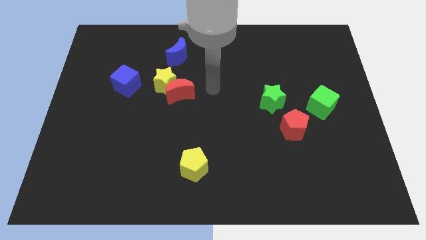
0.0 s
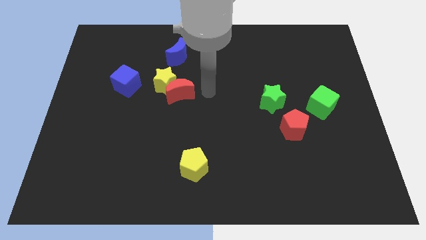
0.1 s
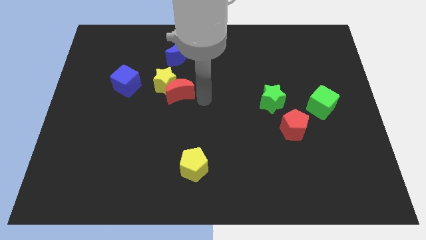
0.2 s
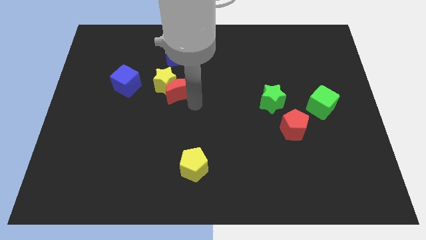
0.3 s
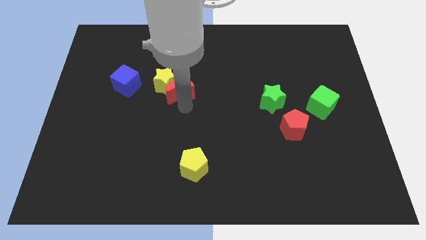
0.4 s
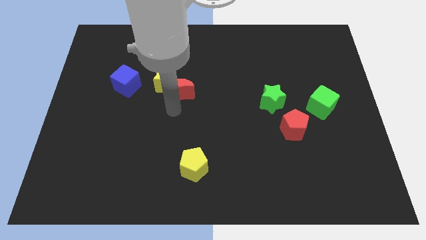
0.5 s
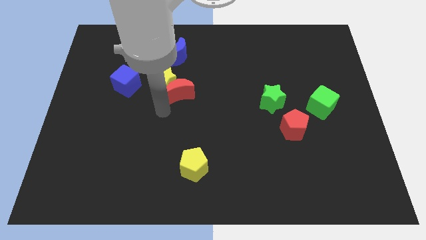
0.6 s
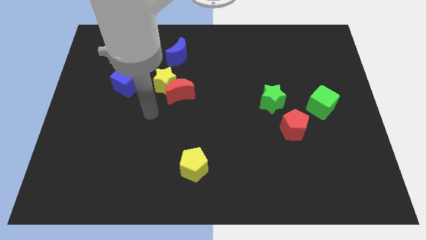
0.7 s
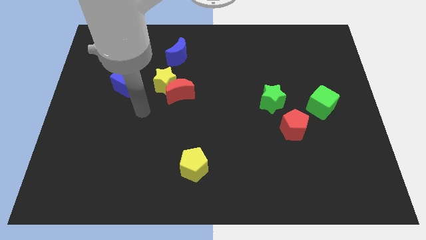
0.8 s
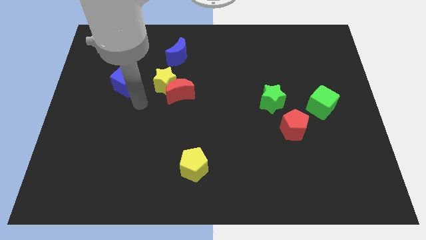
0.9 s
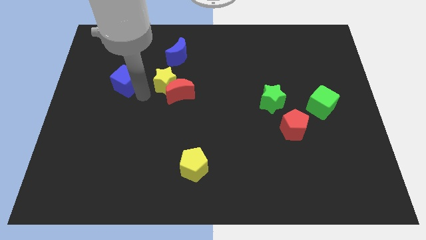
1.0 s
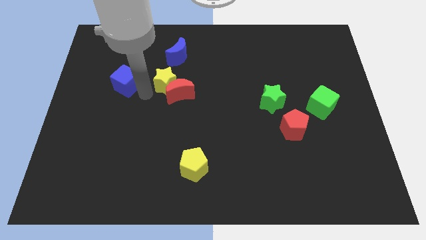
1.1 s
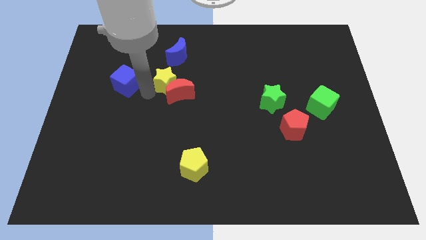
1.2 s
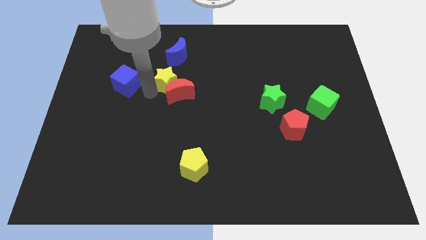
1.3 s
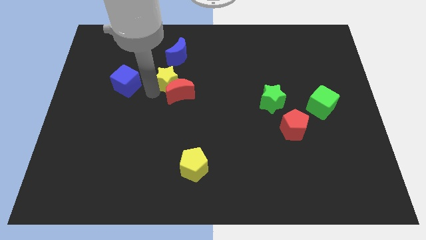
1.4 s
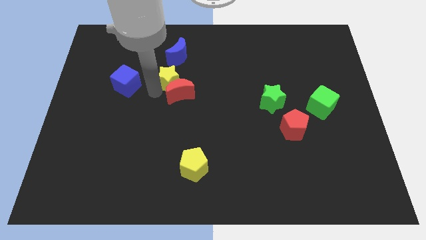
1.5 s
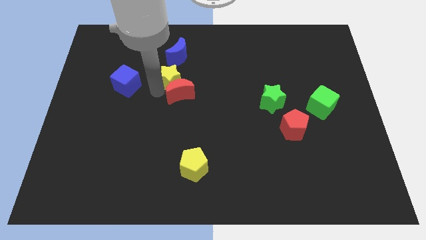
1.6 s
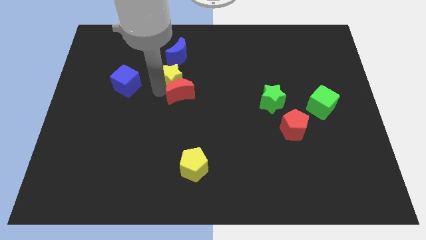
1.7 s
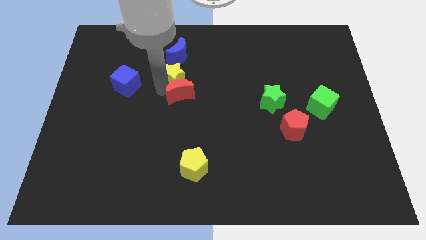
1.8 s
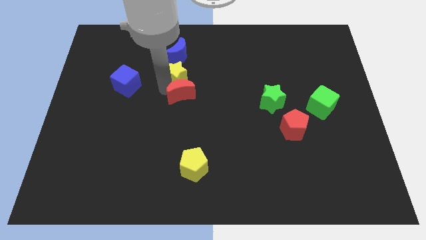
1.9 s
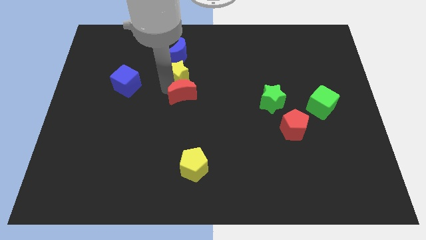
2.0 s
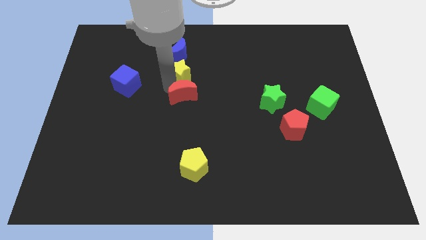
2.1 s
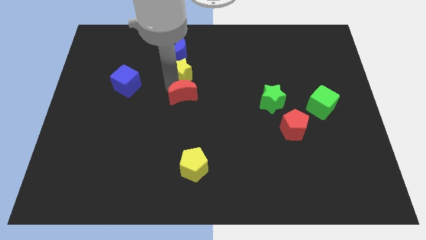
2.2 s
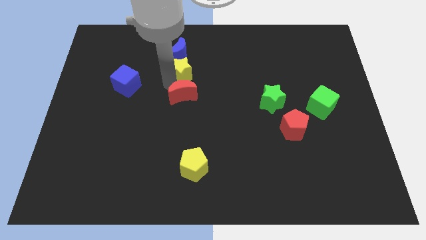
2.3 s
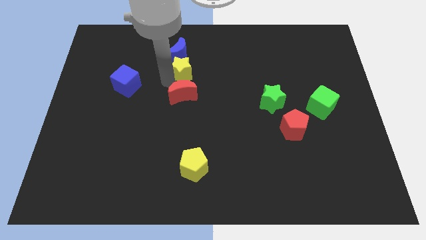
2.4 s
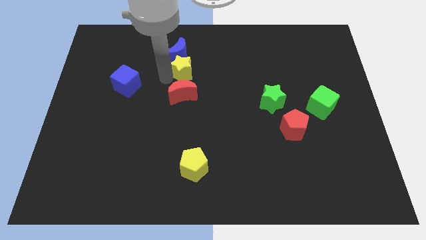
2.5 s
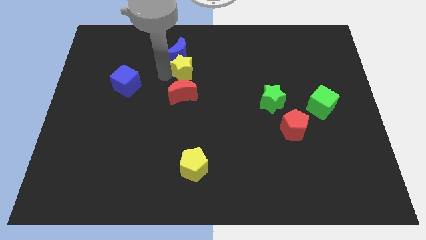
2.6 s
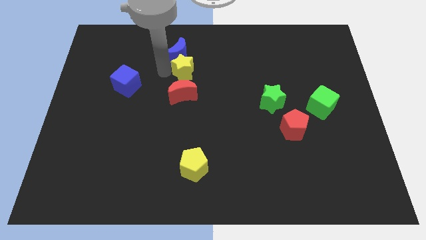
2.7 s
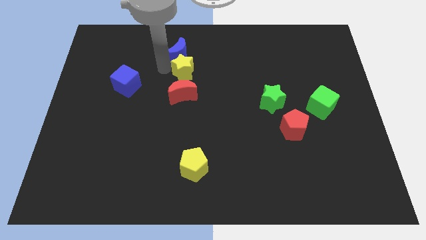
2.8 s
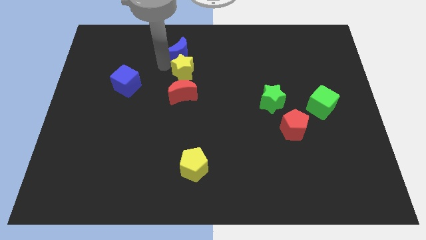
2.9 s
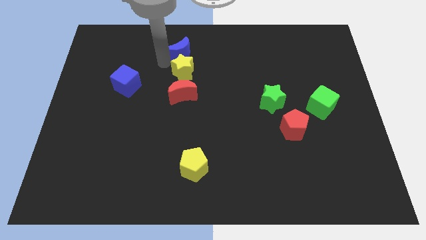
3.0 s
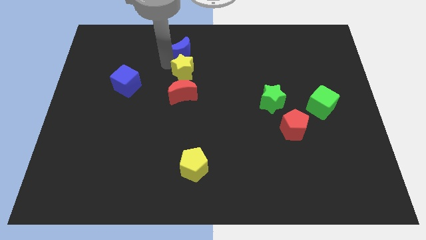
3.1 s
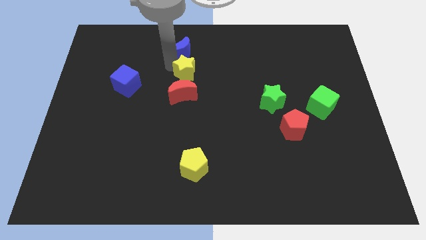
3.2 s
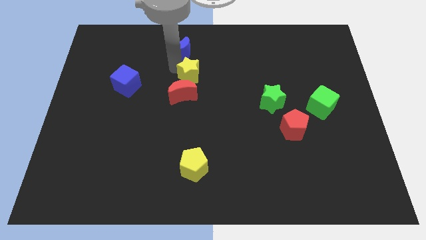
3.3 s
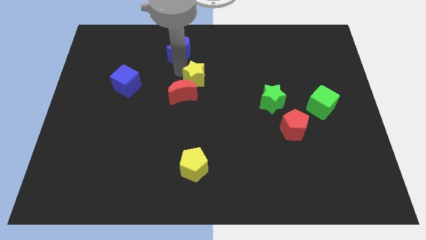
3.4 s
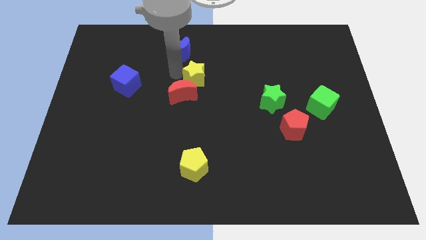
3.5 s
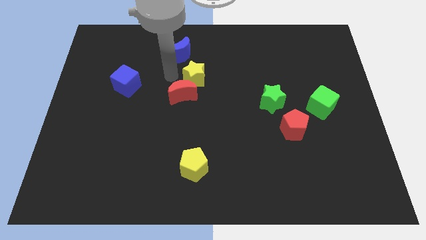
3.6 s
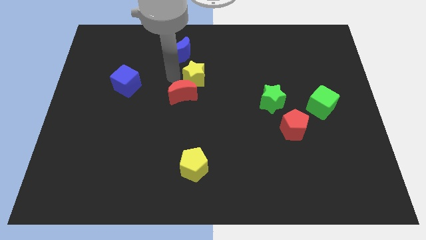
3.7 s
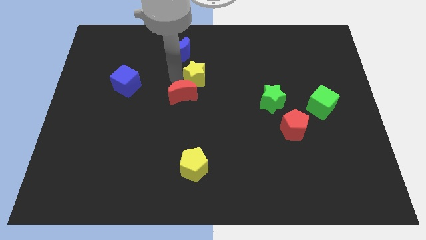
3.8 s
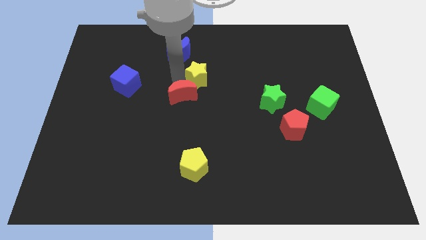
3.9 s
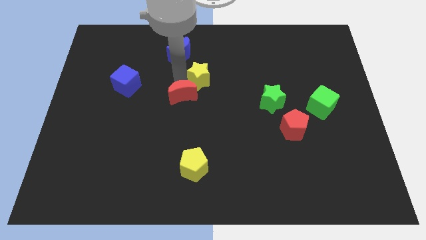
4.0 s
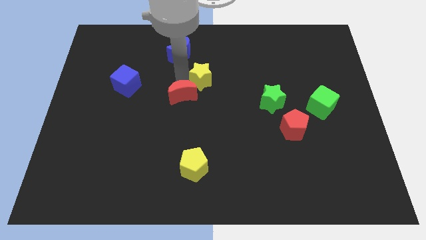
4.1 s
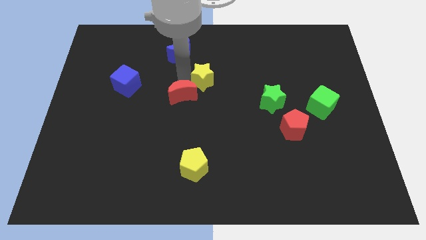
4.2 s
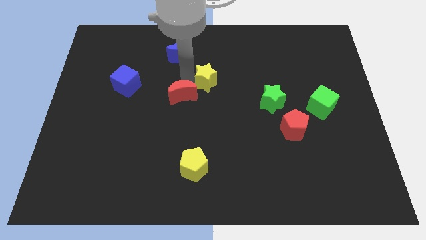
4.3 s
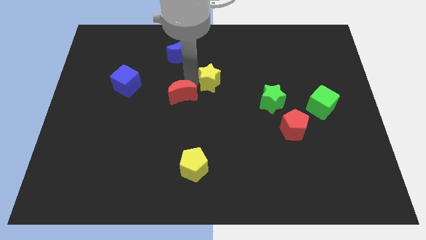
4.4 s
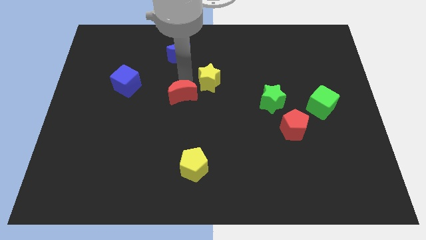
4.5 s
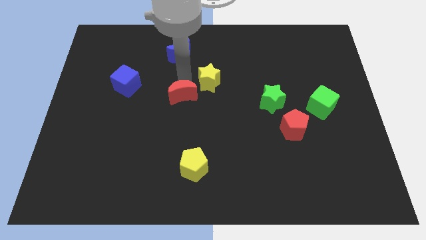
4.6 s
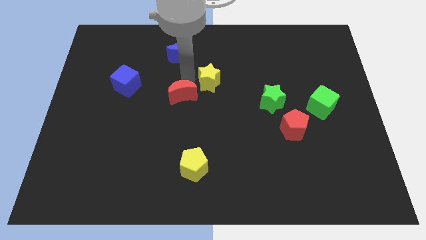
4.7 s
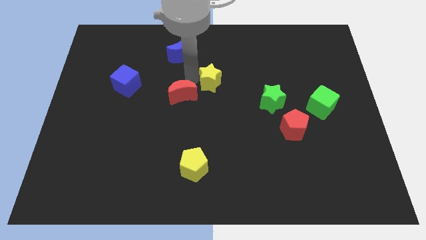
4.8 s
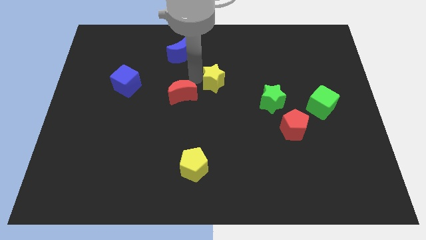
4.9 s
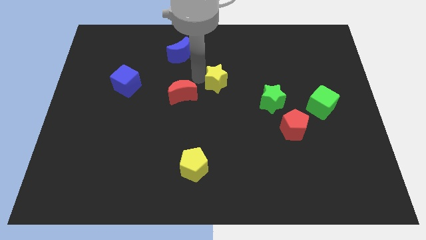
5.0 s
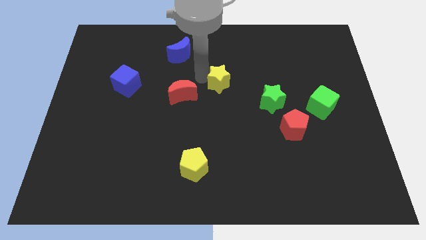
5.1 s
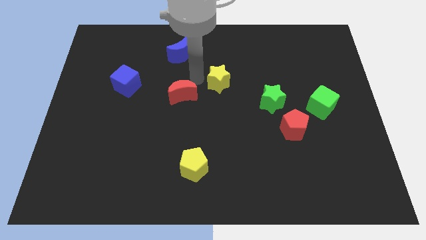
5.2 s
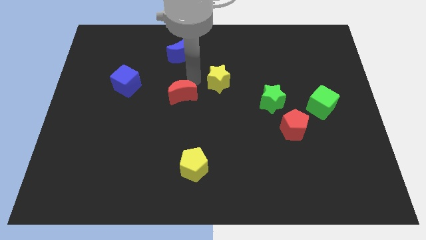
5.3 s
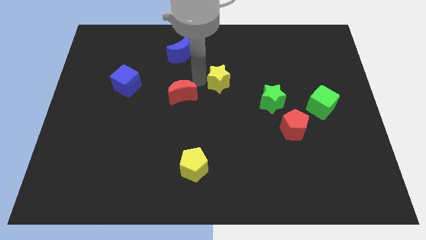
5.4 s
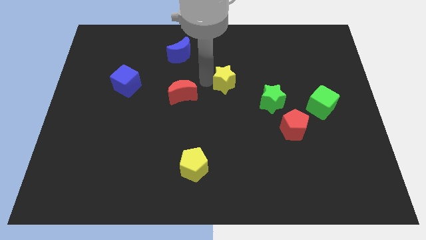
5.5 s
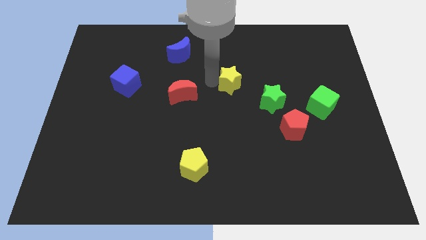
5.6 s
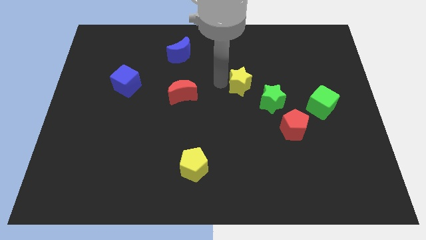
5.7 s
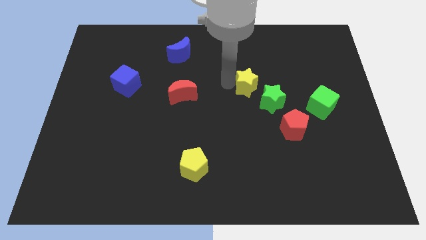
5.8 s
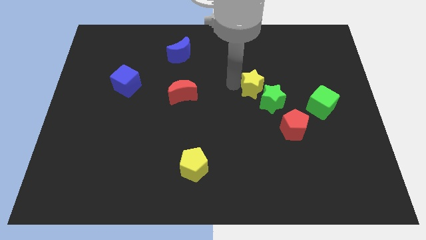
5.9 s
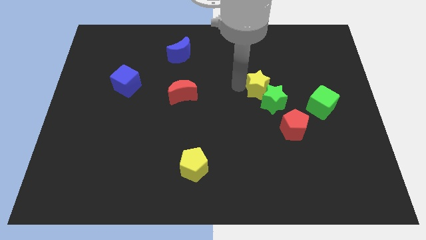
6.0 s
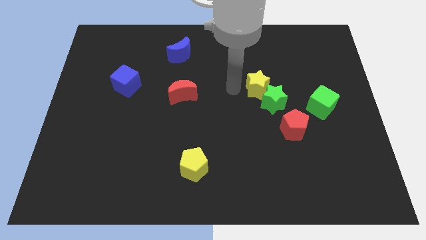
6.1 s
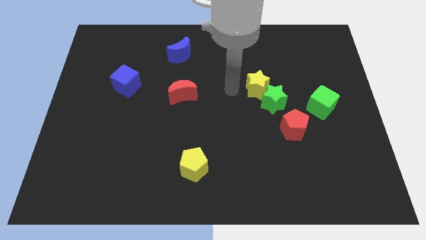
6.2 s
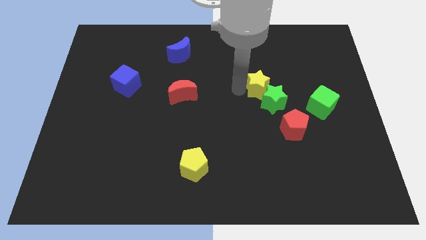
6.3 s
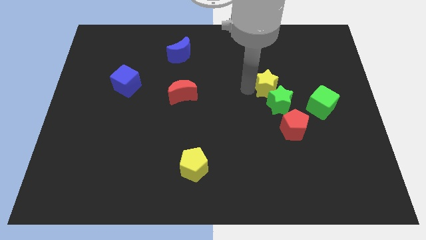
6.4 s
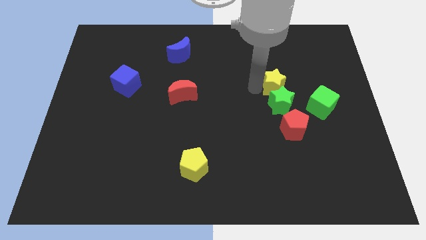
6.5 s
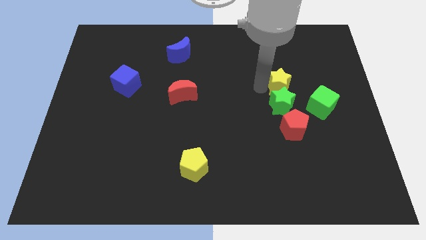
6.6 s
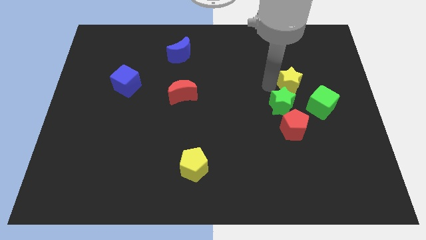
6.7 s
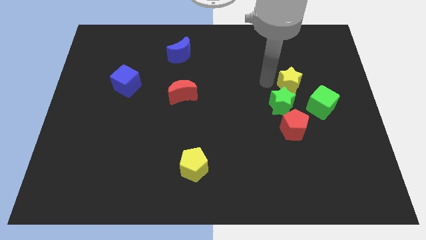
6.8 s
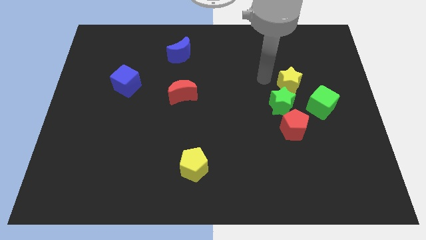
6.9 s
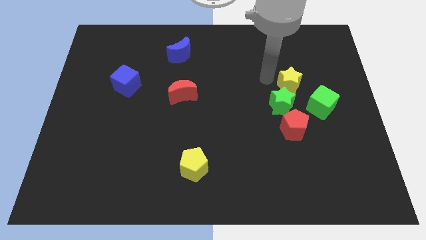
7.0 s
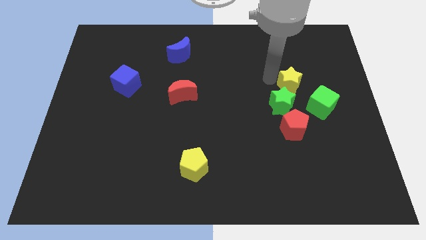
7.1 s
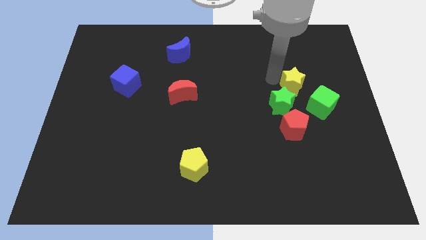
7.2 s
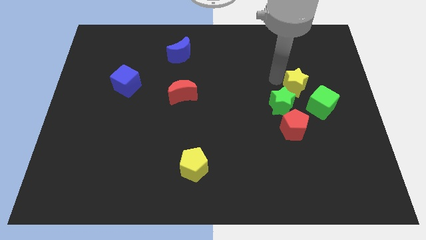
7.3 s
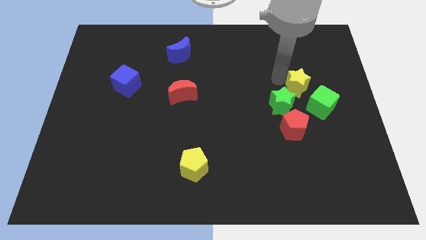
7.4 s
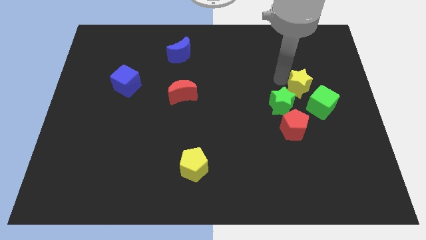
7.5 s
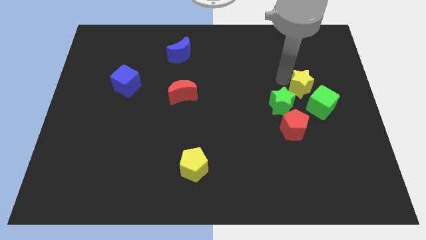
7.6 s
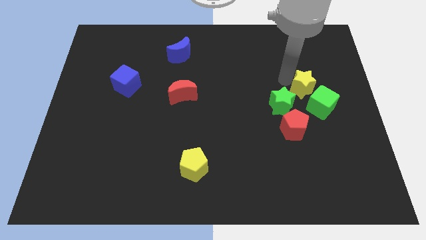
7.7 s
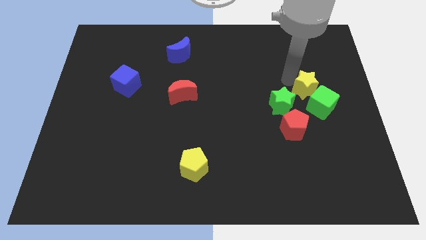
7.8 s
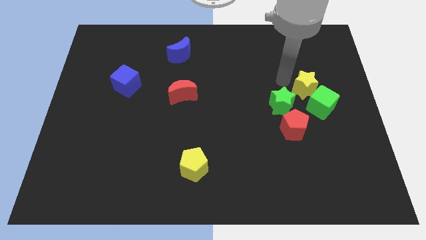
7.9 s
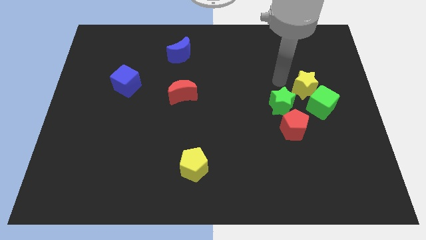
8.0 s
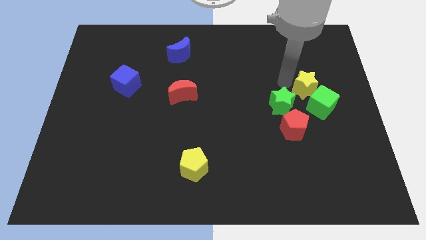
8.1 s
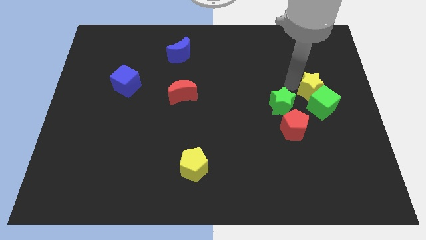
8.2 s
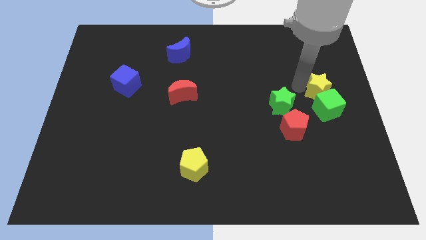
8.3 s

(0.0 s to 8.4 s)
push the yellow star to the center right
